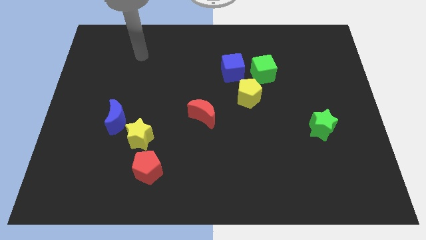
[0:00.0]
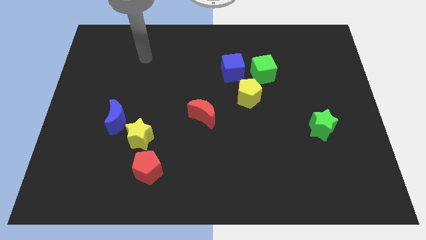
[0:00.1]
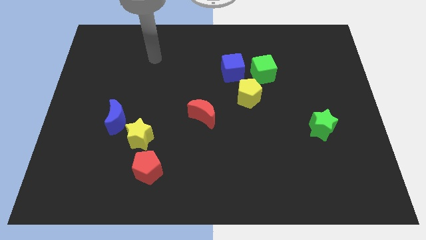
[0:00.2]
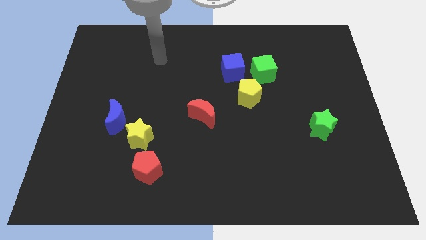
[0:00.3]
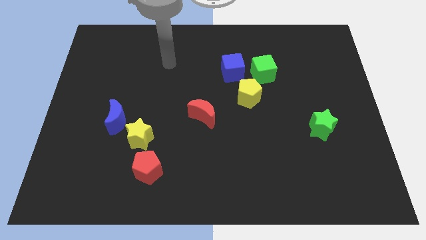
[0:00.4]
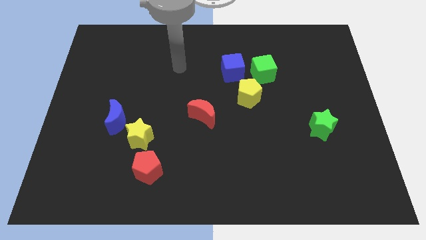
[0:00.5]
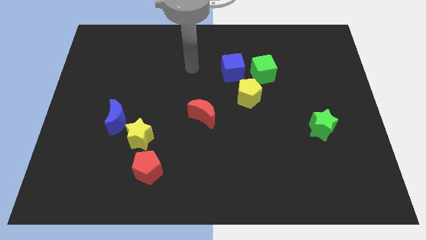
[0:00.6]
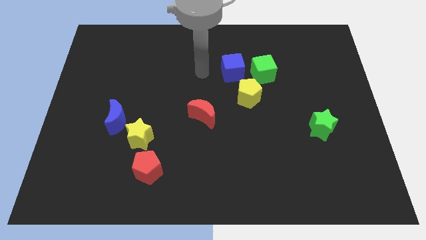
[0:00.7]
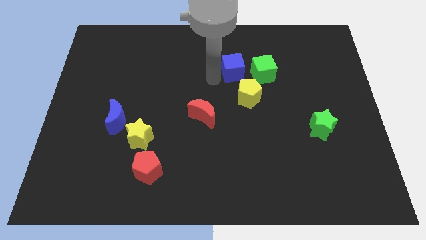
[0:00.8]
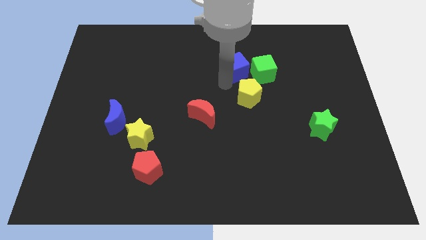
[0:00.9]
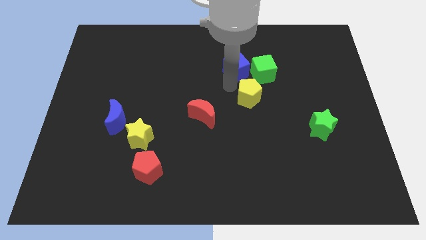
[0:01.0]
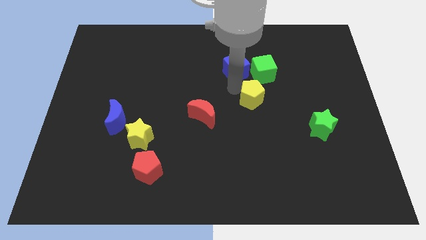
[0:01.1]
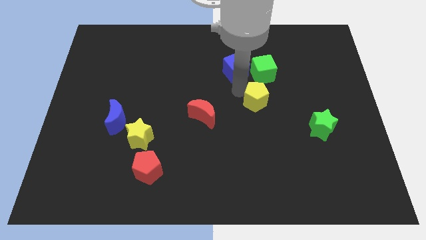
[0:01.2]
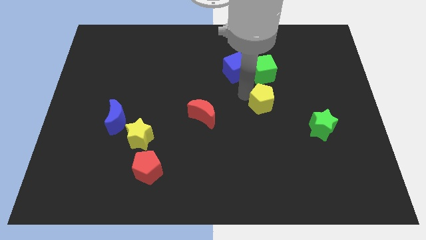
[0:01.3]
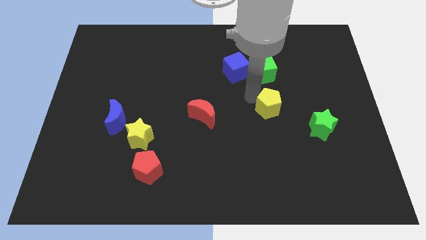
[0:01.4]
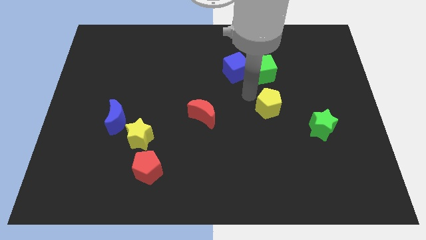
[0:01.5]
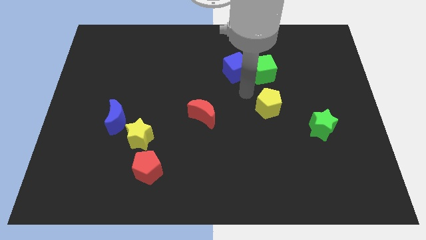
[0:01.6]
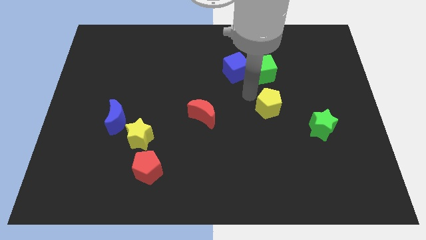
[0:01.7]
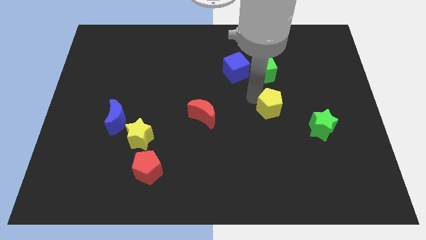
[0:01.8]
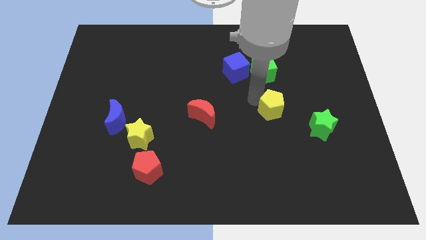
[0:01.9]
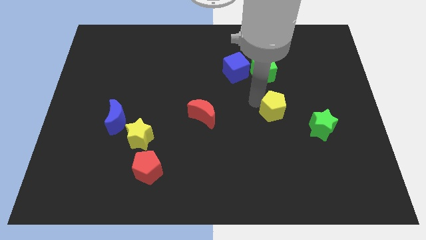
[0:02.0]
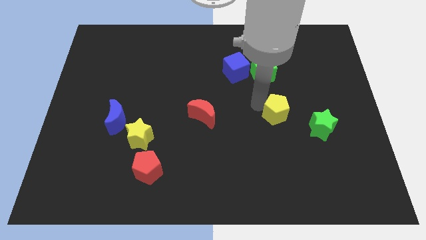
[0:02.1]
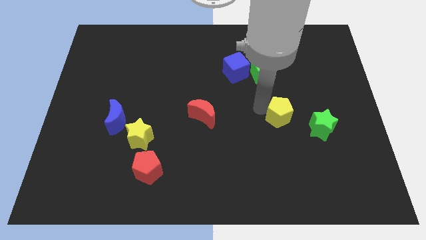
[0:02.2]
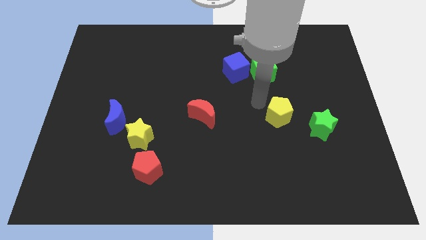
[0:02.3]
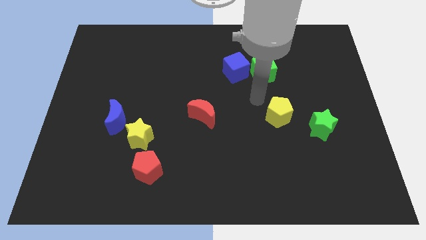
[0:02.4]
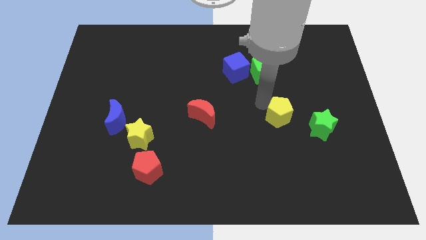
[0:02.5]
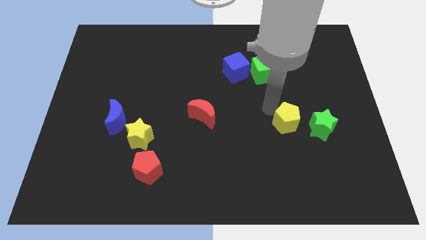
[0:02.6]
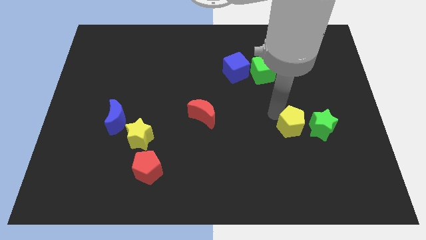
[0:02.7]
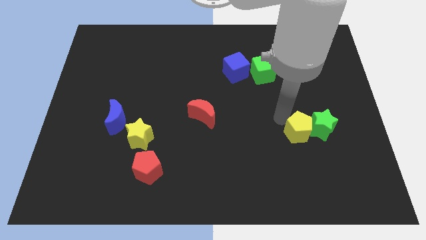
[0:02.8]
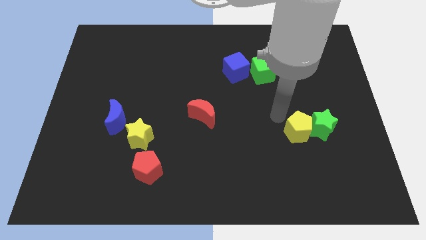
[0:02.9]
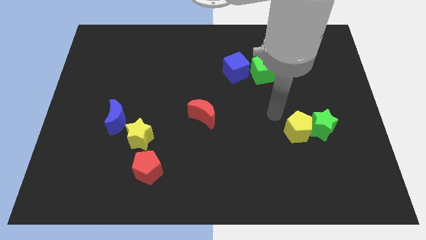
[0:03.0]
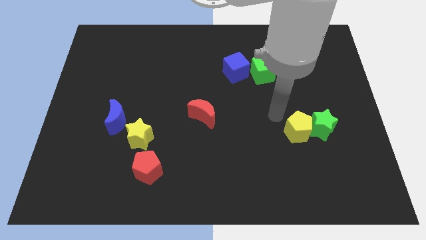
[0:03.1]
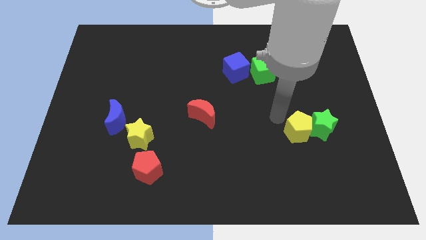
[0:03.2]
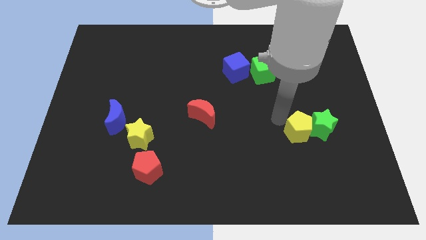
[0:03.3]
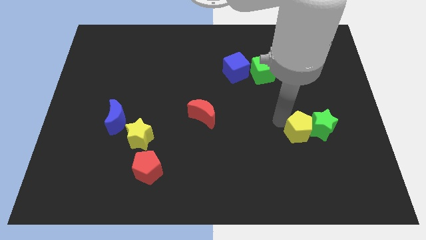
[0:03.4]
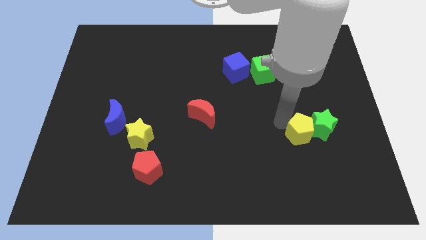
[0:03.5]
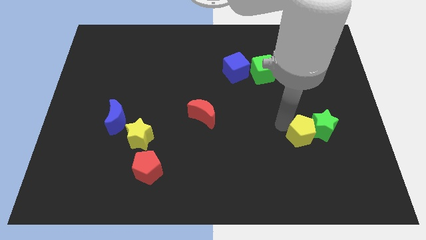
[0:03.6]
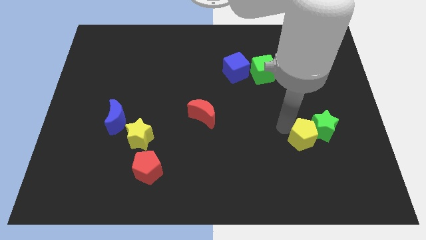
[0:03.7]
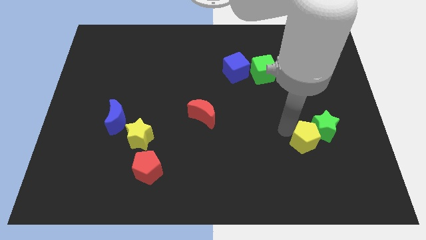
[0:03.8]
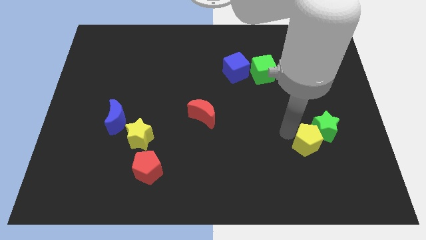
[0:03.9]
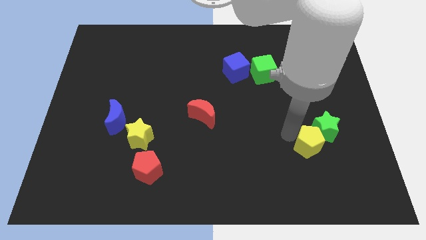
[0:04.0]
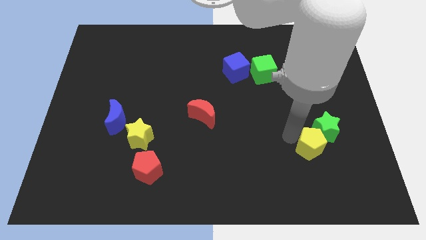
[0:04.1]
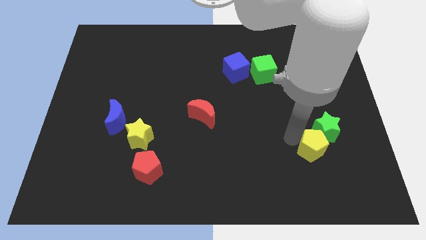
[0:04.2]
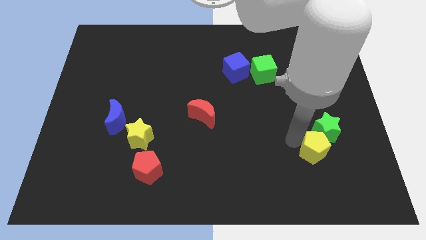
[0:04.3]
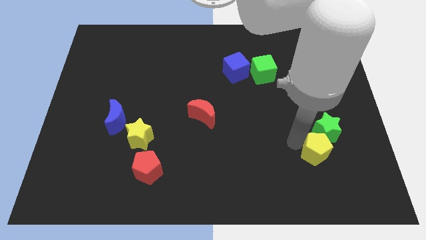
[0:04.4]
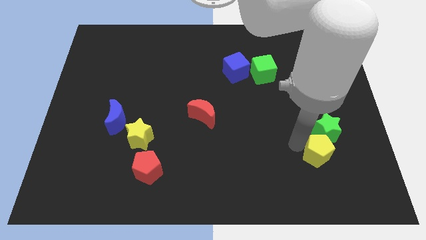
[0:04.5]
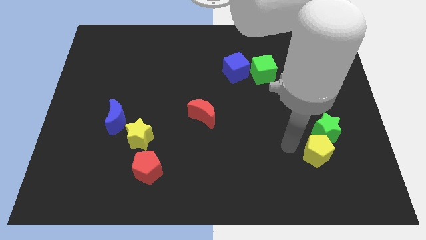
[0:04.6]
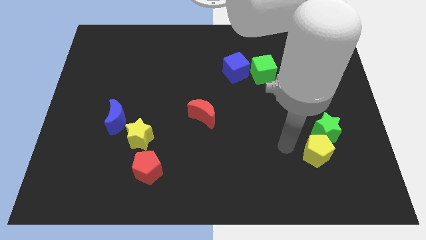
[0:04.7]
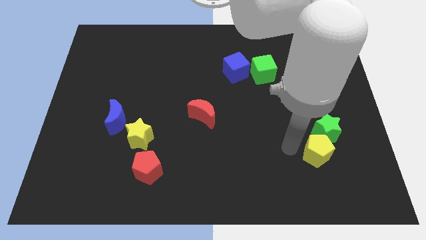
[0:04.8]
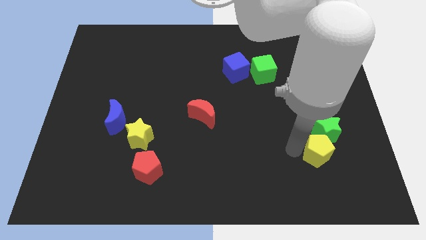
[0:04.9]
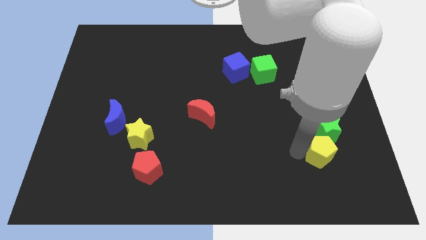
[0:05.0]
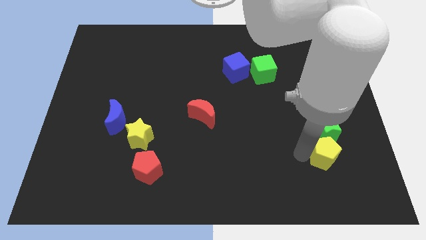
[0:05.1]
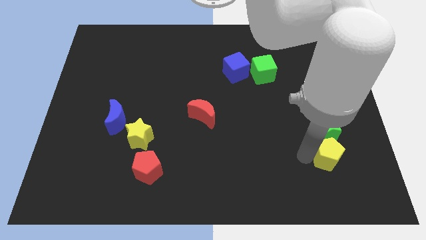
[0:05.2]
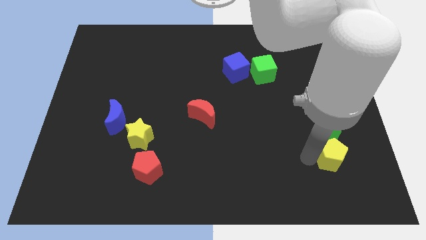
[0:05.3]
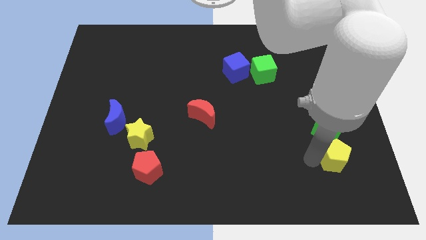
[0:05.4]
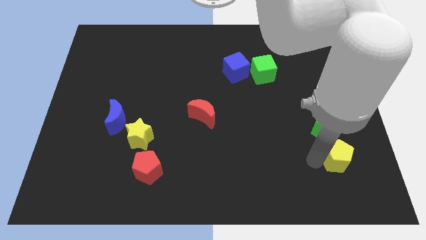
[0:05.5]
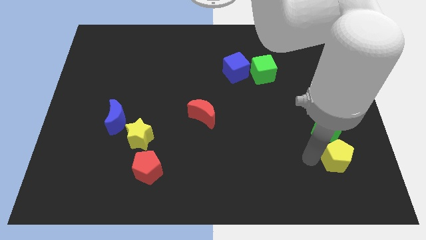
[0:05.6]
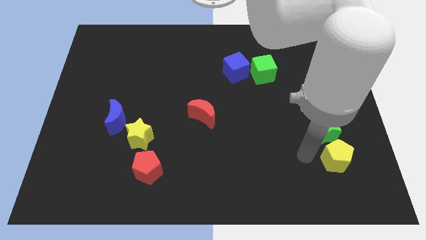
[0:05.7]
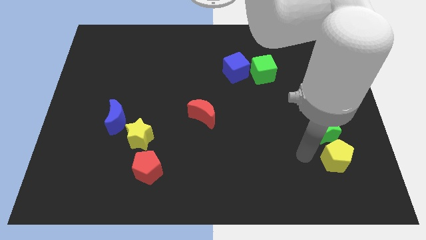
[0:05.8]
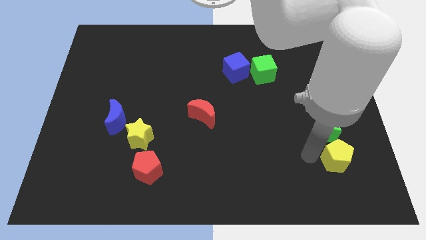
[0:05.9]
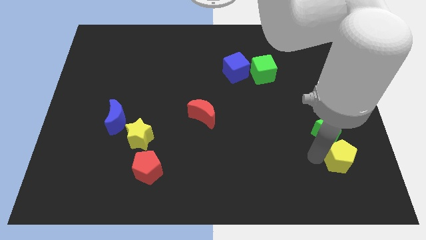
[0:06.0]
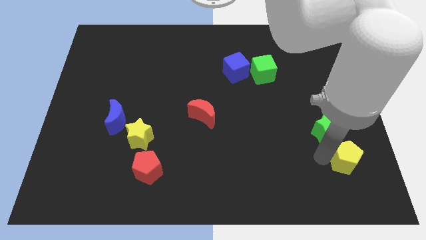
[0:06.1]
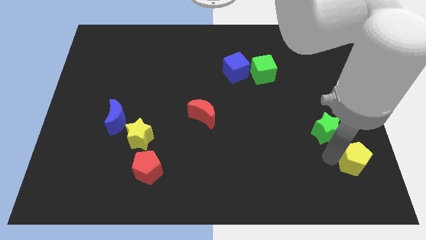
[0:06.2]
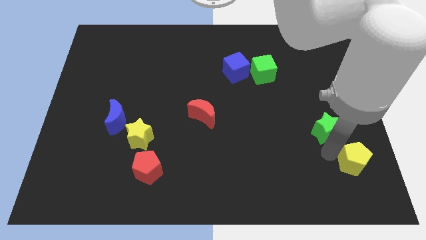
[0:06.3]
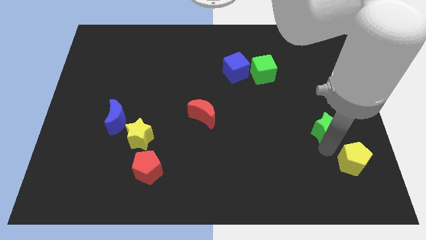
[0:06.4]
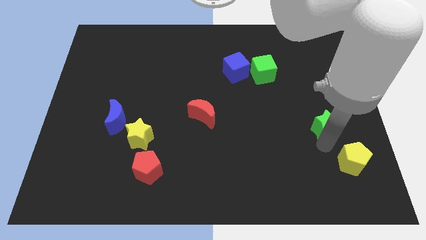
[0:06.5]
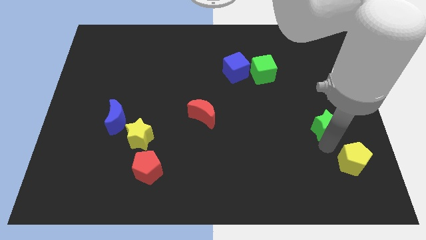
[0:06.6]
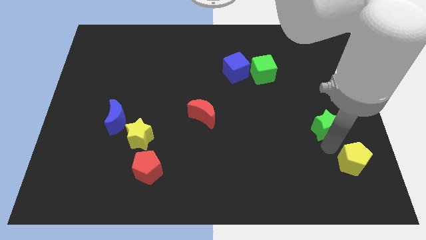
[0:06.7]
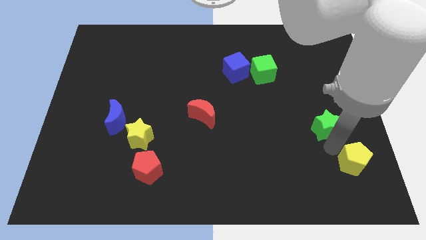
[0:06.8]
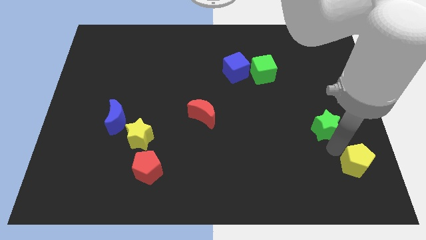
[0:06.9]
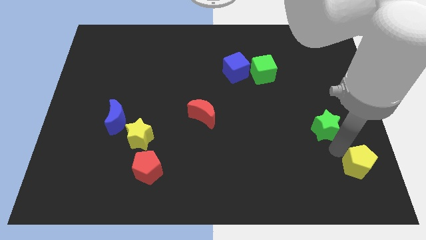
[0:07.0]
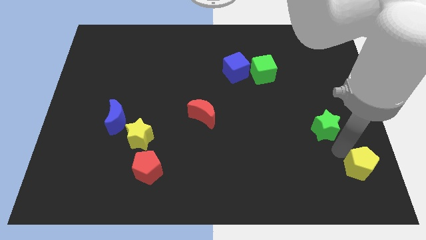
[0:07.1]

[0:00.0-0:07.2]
move the yellow pentagon to the bottom right

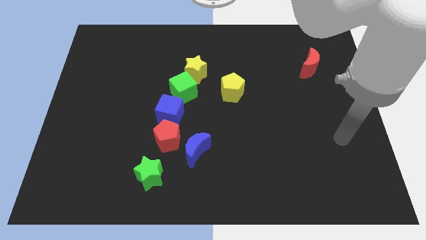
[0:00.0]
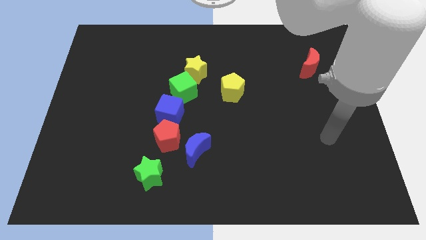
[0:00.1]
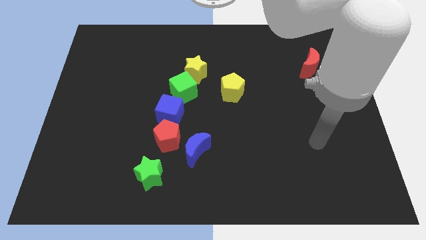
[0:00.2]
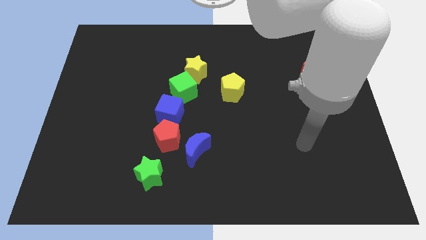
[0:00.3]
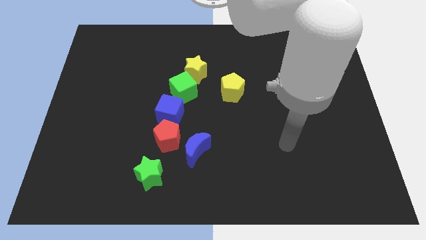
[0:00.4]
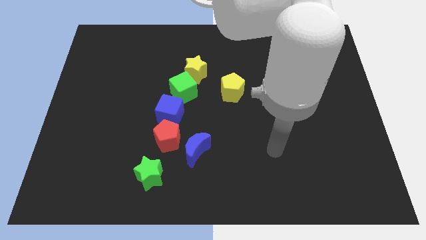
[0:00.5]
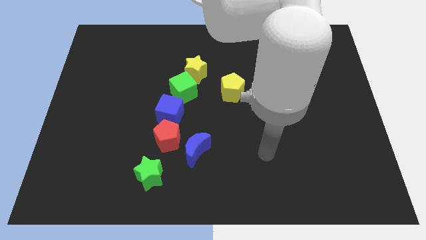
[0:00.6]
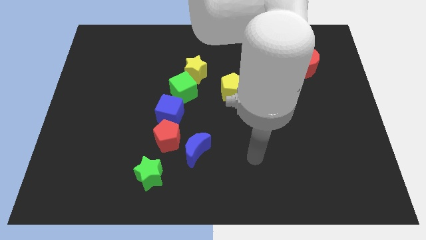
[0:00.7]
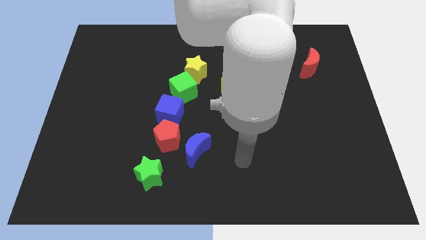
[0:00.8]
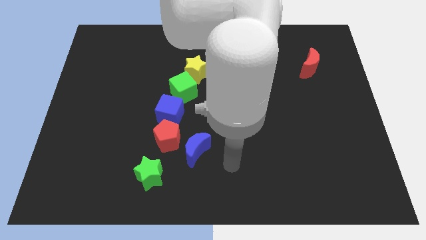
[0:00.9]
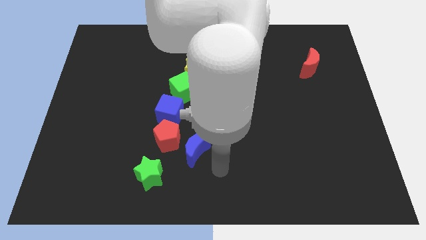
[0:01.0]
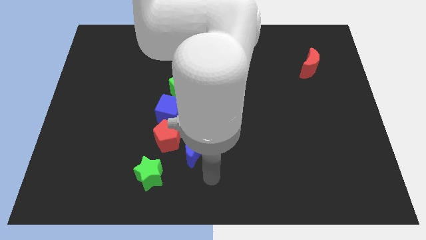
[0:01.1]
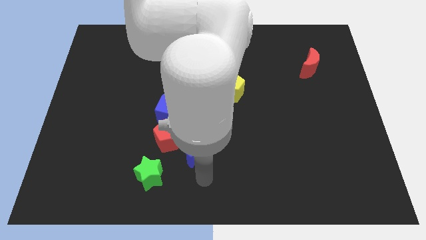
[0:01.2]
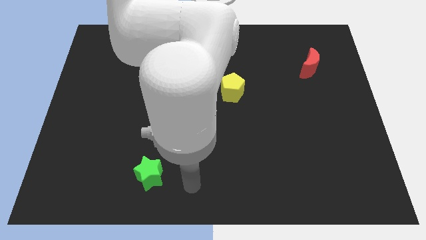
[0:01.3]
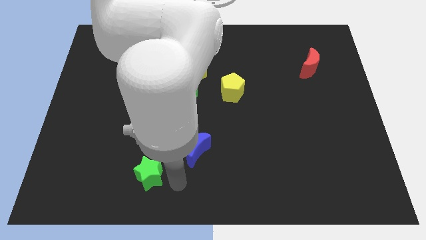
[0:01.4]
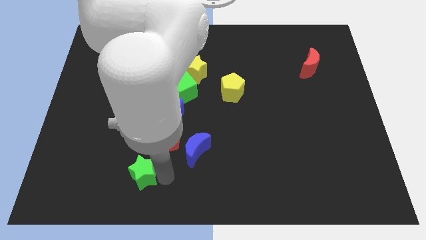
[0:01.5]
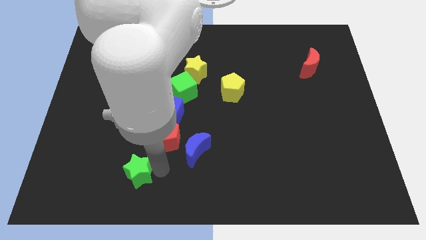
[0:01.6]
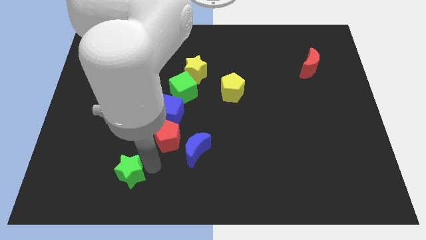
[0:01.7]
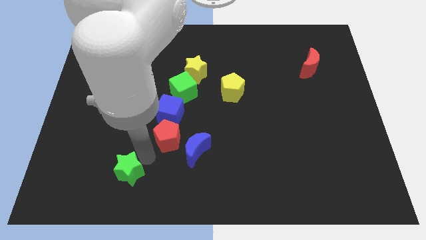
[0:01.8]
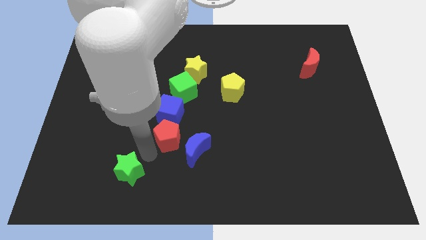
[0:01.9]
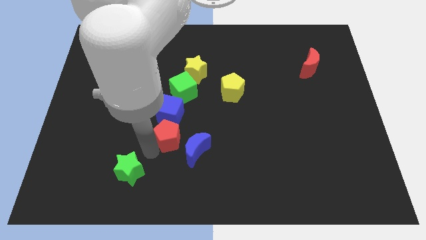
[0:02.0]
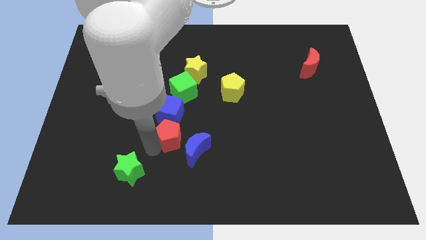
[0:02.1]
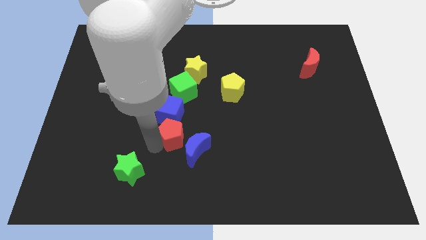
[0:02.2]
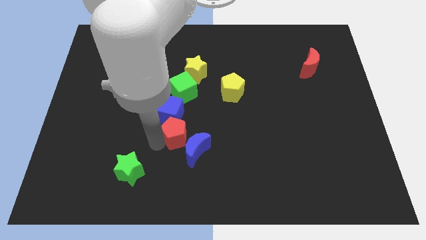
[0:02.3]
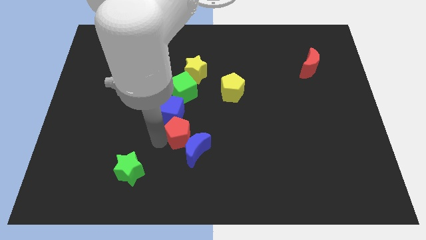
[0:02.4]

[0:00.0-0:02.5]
push the red pentagon to the middle
